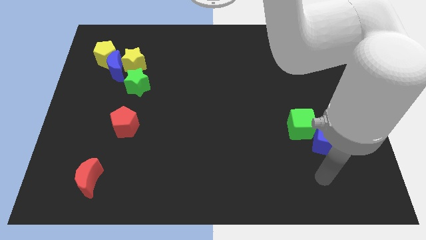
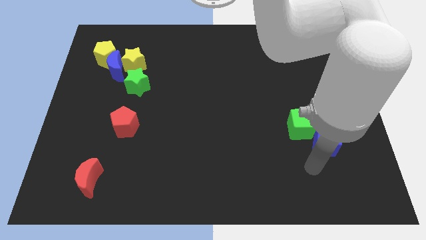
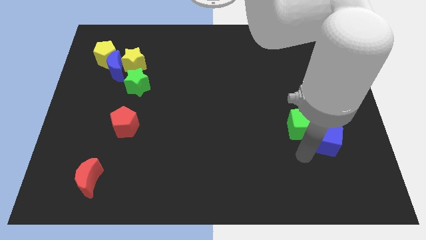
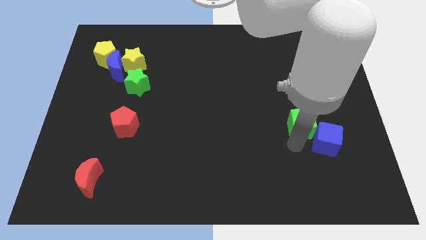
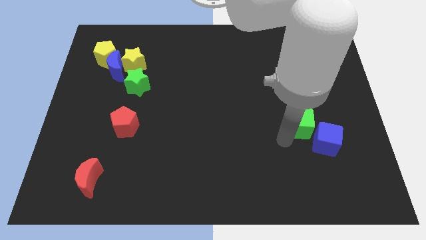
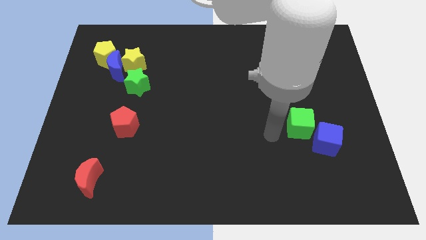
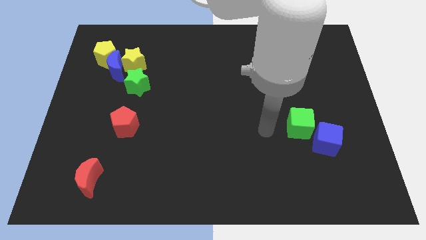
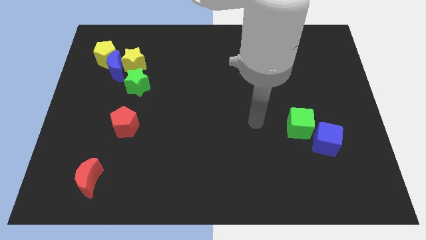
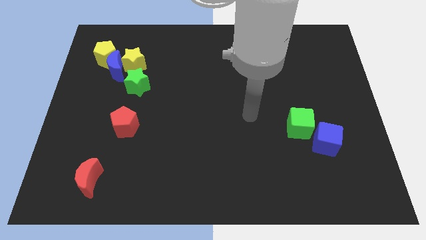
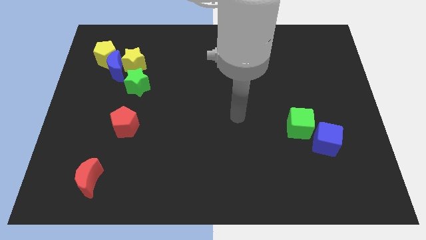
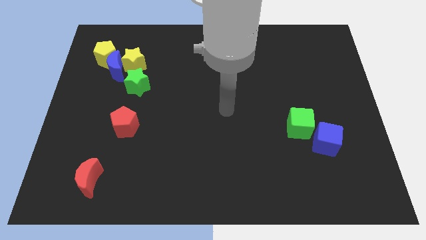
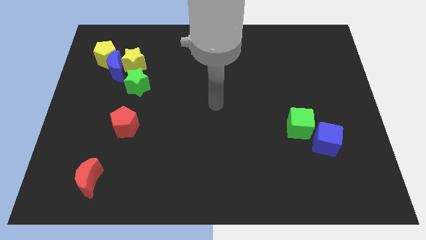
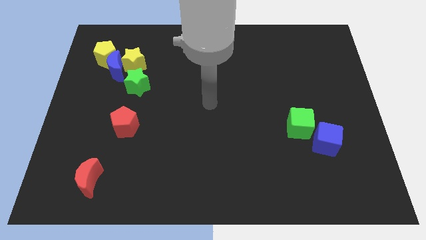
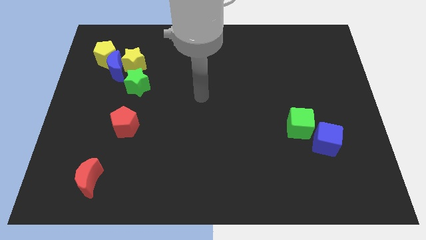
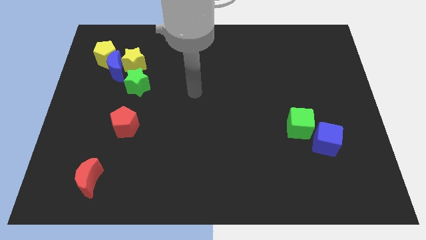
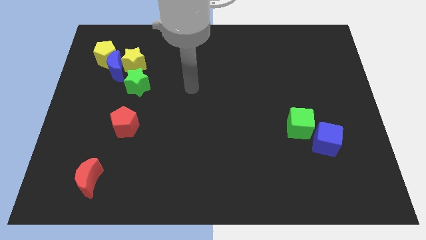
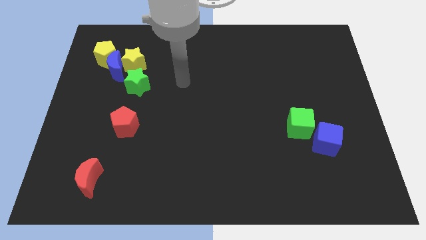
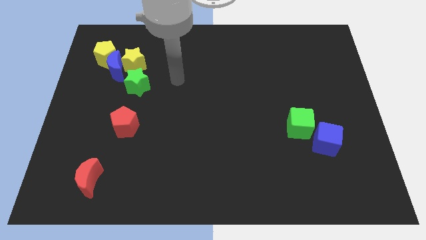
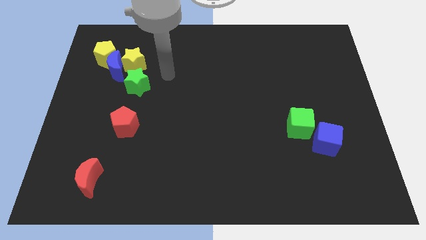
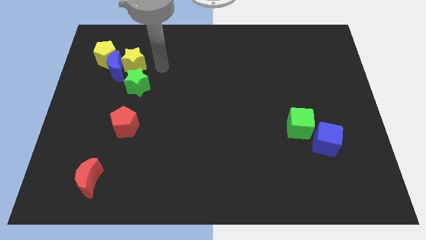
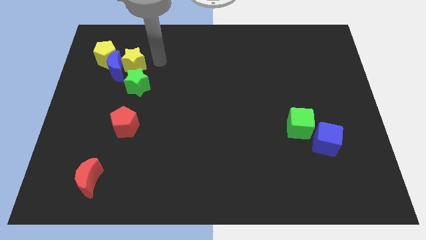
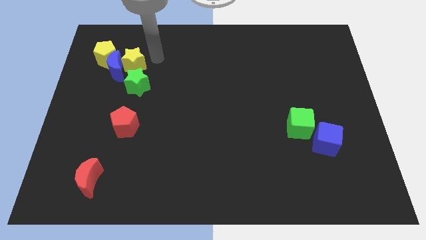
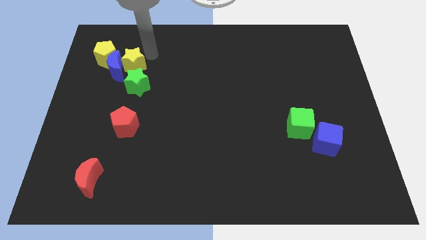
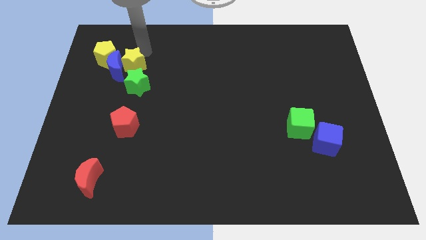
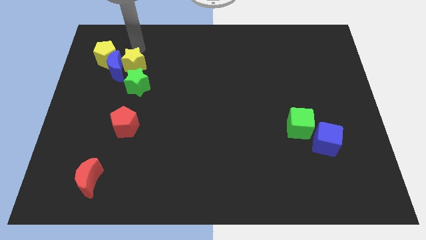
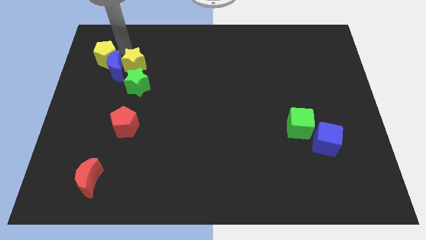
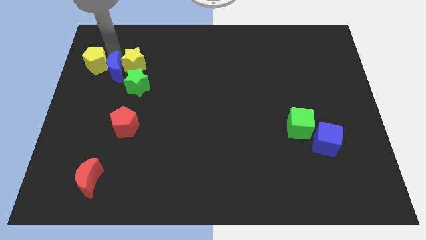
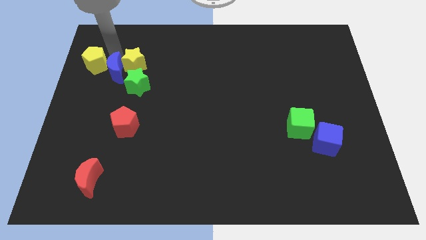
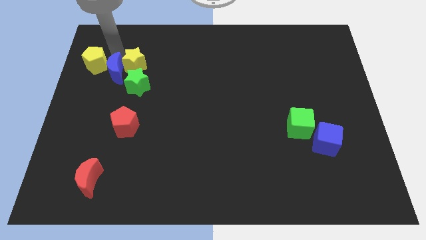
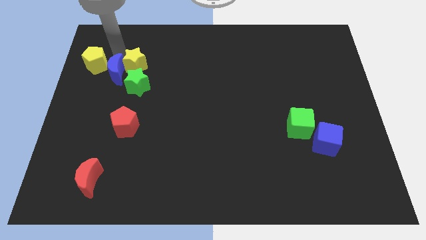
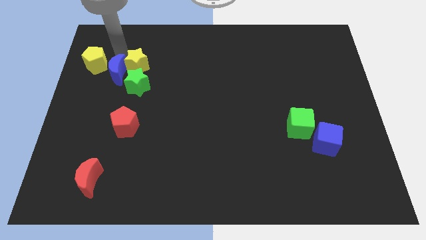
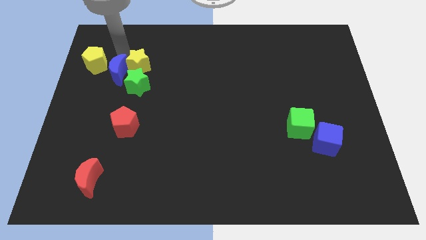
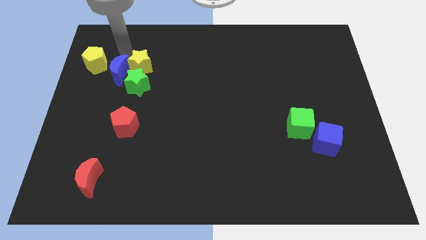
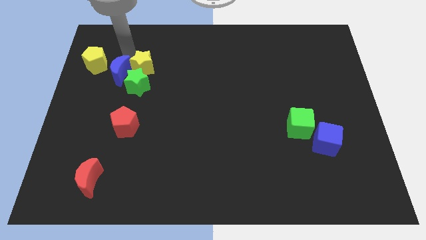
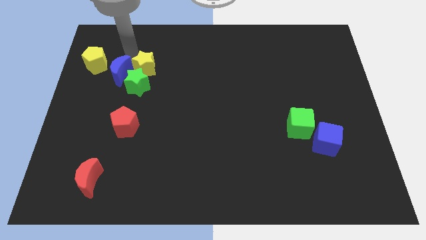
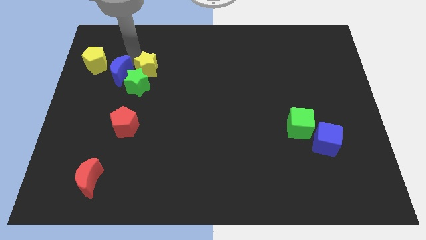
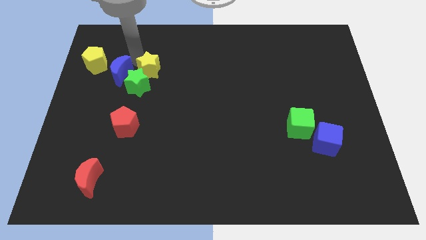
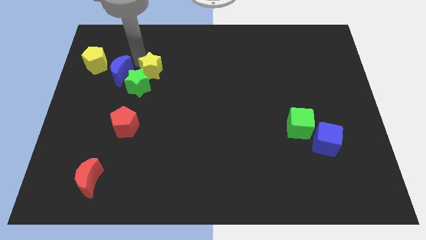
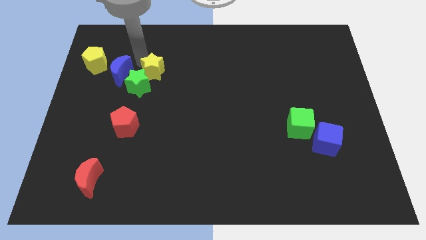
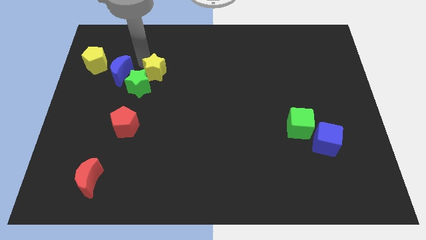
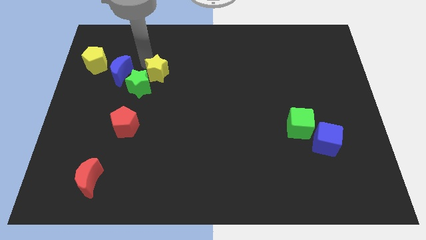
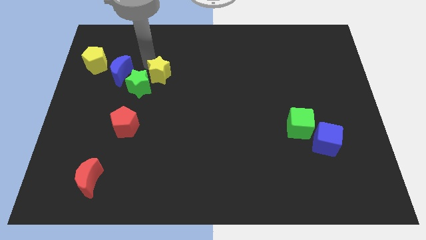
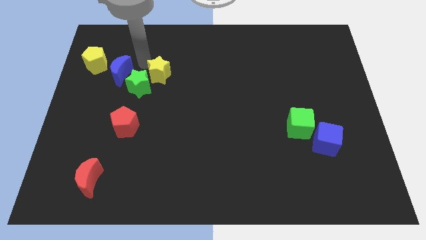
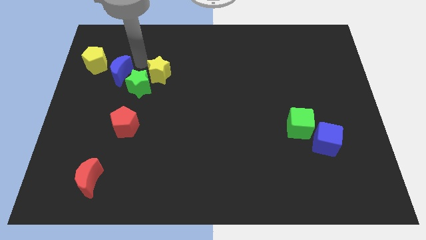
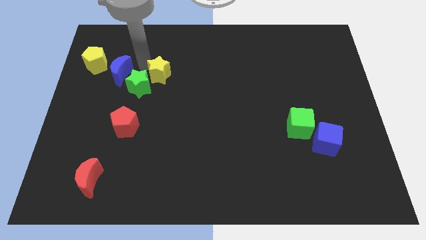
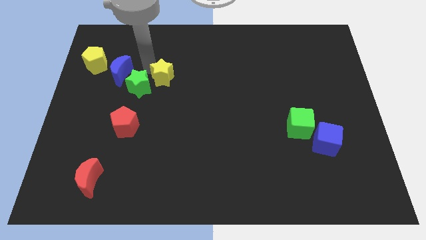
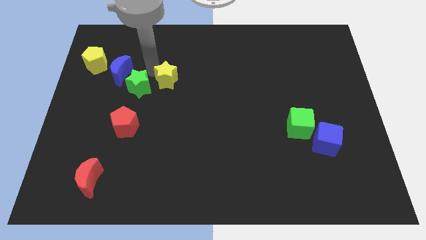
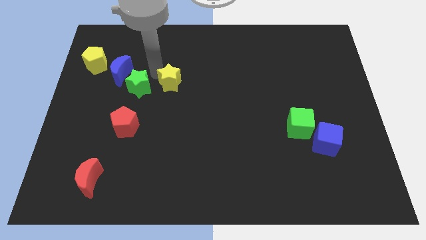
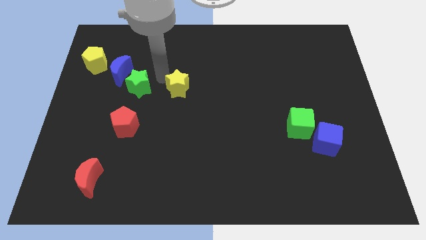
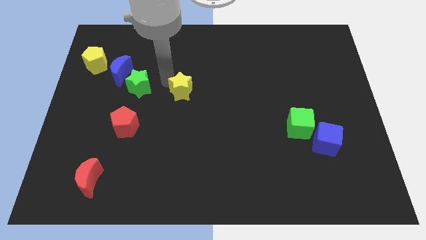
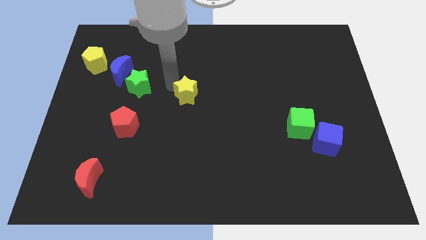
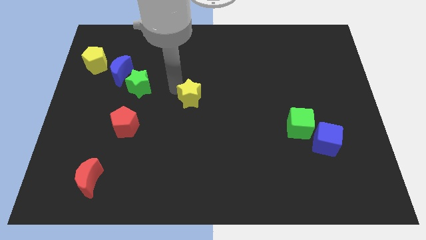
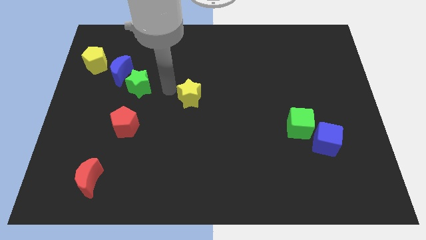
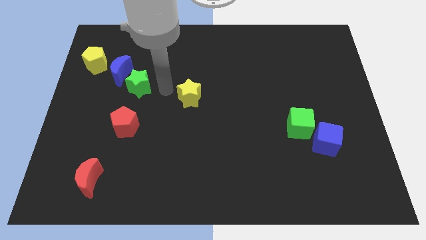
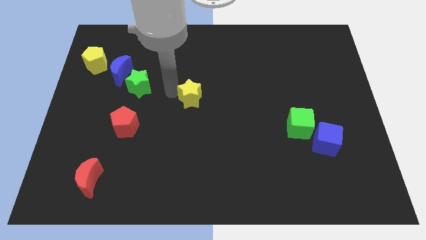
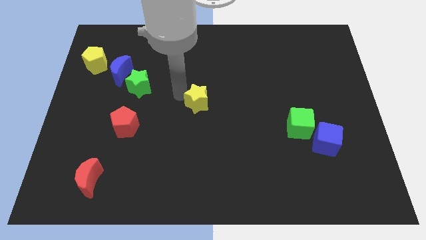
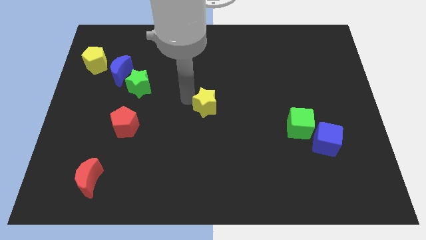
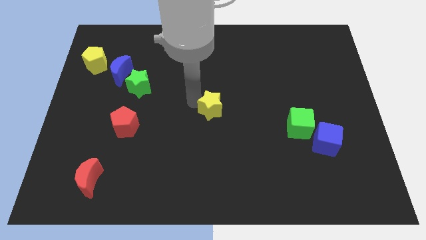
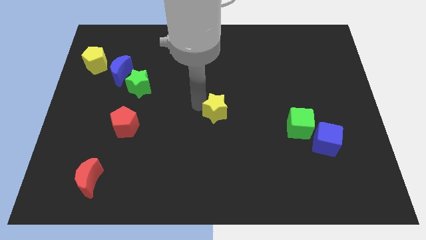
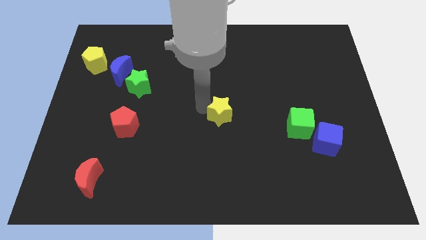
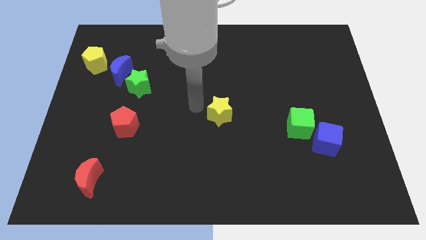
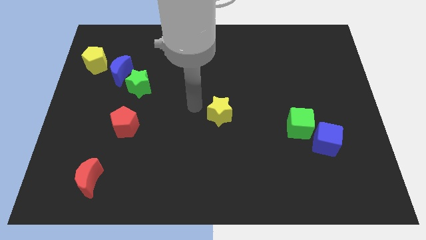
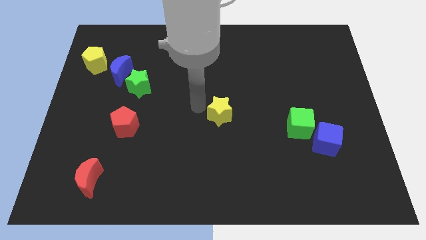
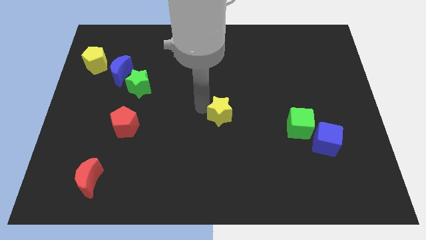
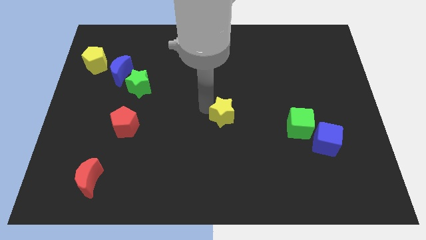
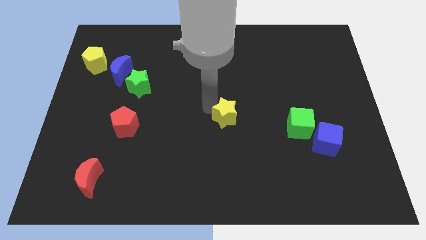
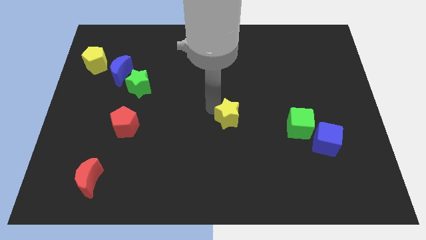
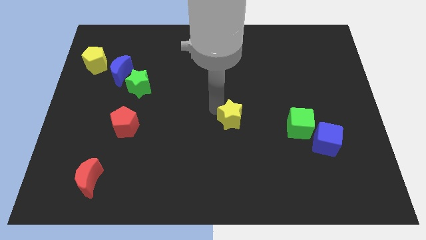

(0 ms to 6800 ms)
slide the yellow star to the left of the green cube

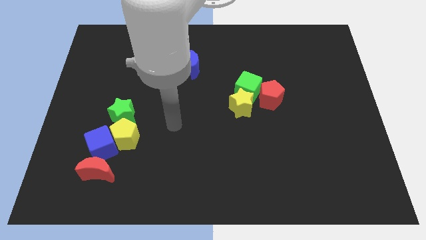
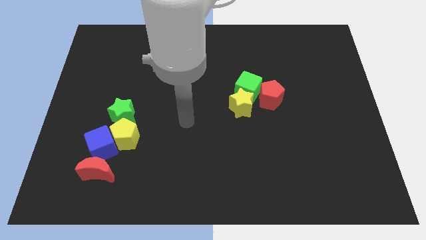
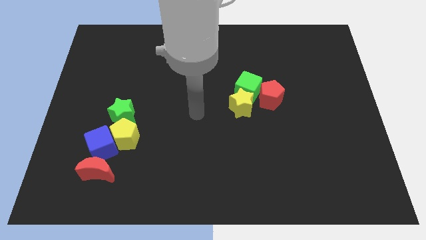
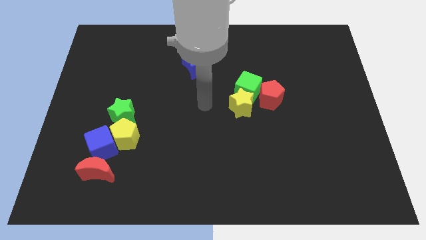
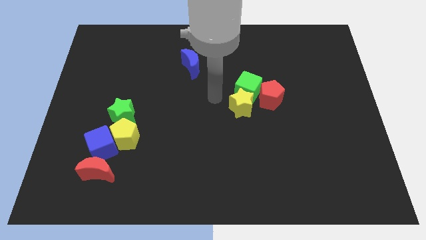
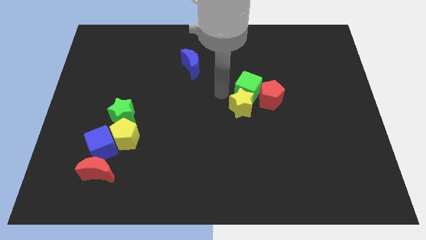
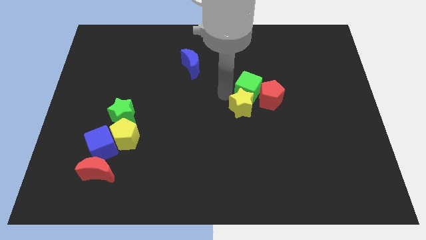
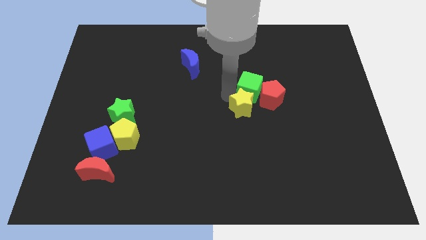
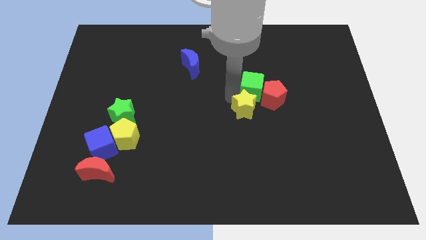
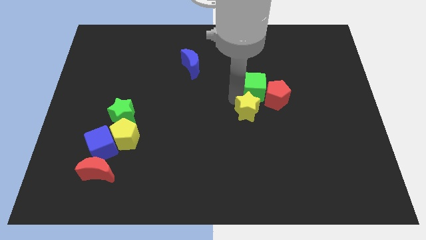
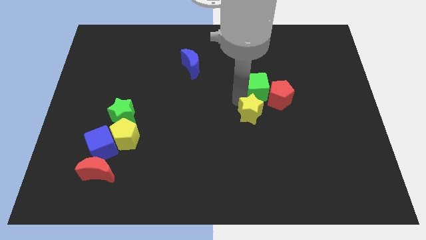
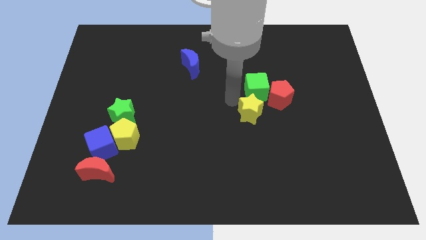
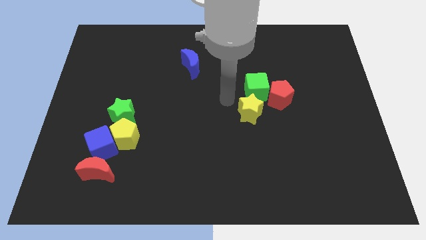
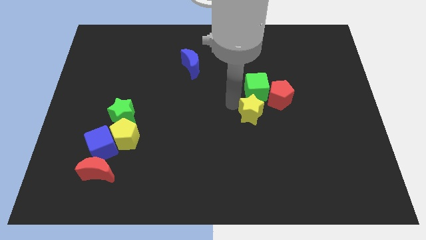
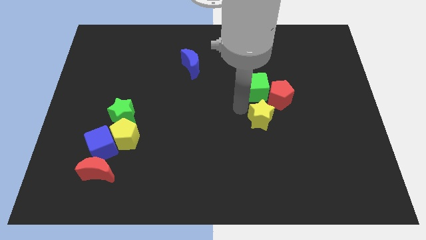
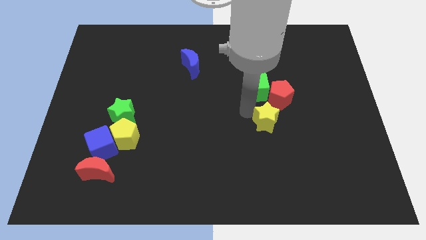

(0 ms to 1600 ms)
slide the yellow star to the bottom side of the red pentagon
